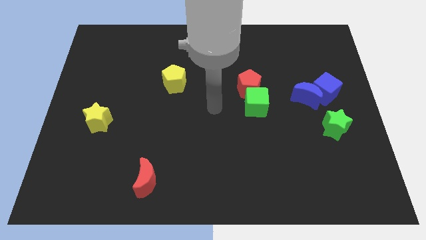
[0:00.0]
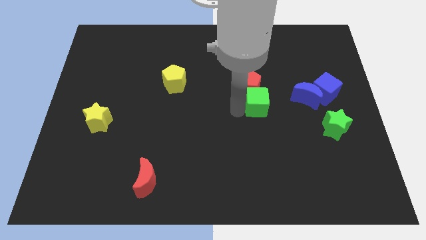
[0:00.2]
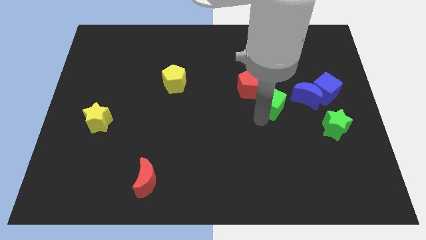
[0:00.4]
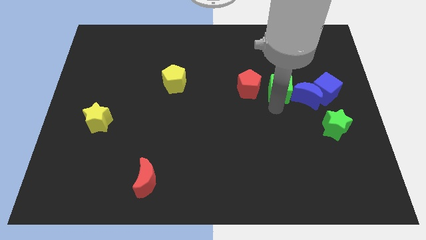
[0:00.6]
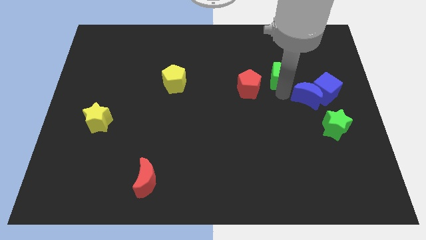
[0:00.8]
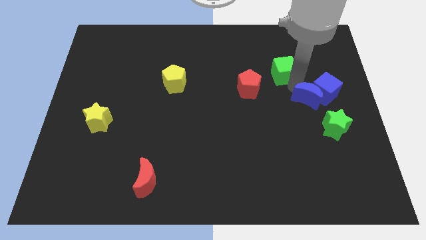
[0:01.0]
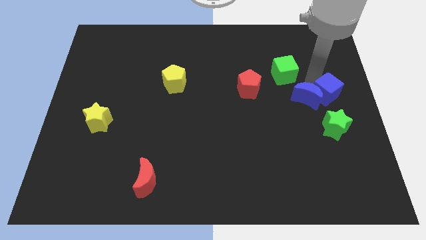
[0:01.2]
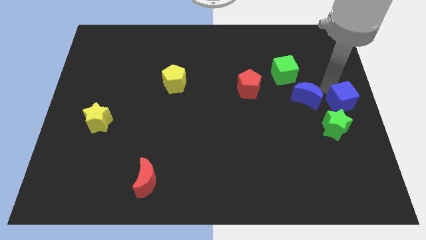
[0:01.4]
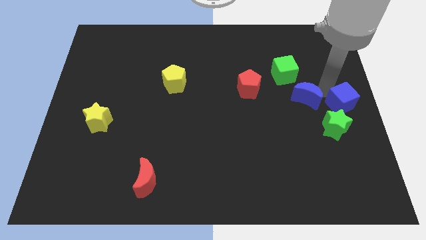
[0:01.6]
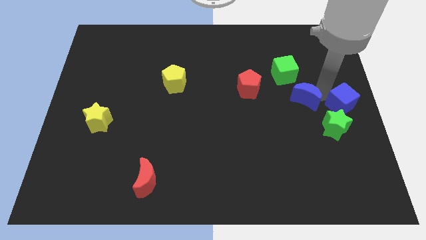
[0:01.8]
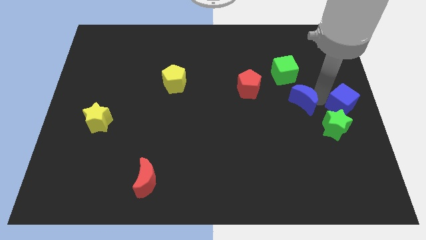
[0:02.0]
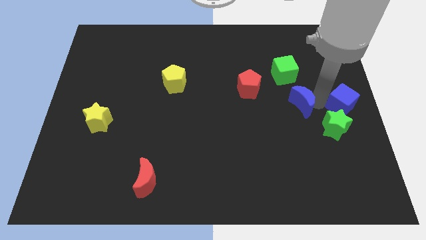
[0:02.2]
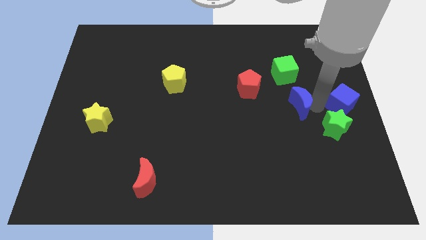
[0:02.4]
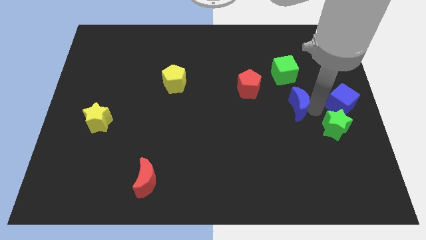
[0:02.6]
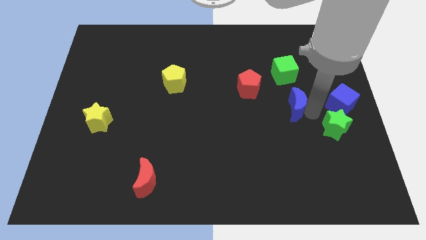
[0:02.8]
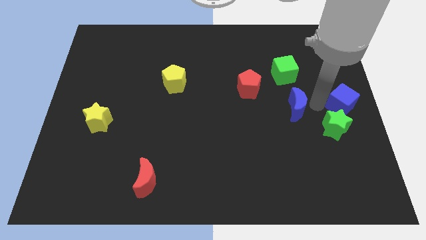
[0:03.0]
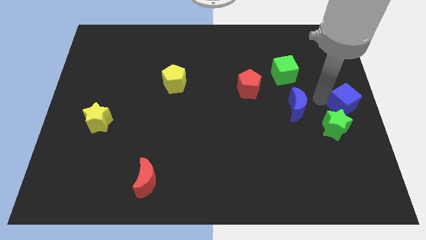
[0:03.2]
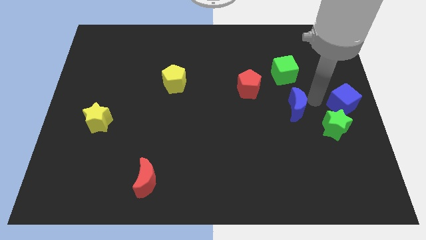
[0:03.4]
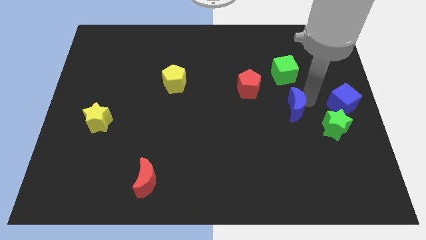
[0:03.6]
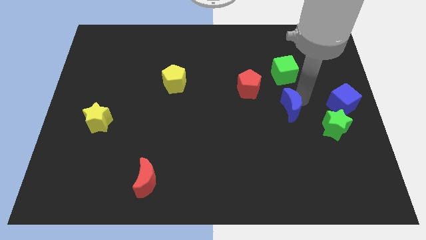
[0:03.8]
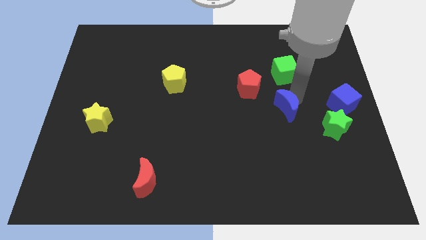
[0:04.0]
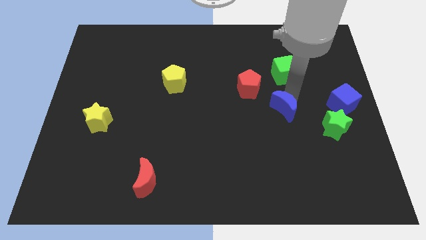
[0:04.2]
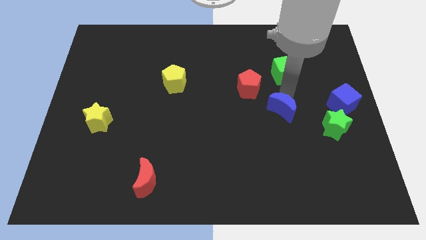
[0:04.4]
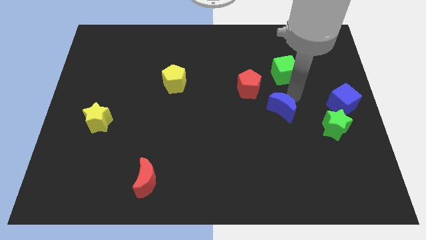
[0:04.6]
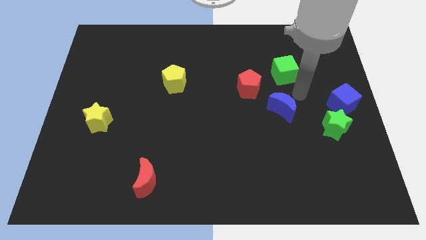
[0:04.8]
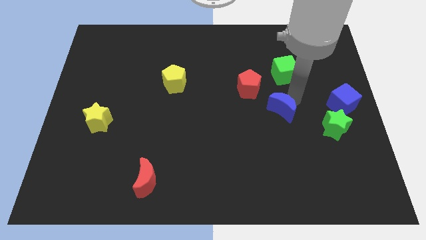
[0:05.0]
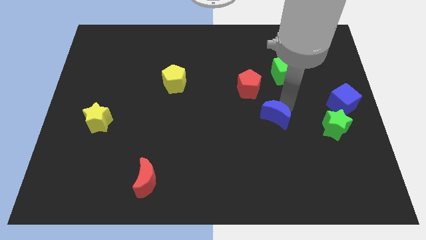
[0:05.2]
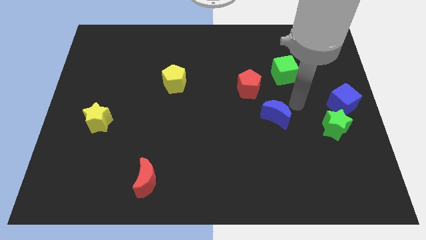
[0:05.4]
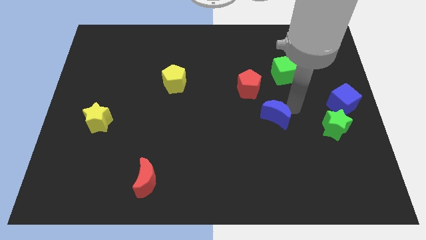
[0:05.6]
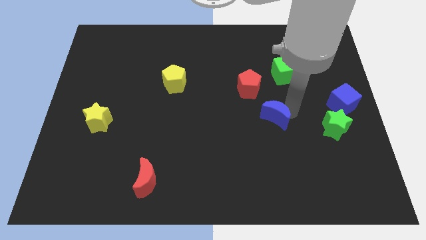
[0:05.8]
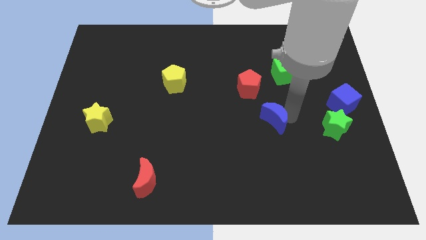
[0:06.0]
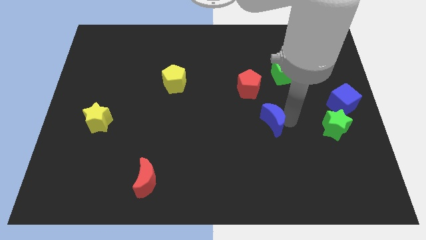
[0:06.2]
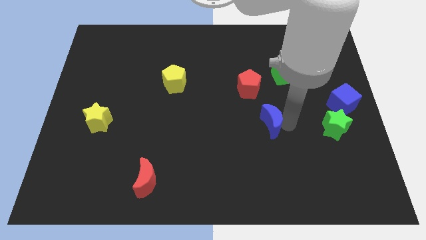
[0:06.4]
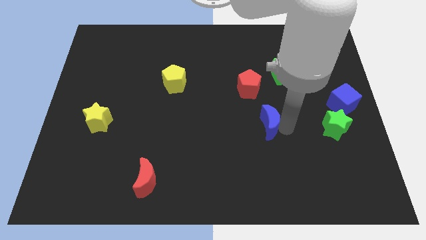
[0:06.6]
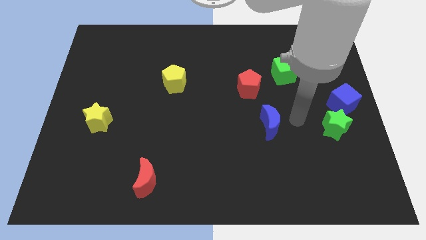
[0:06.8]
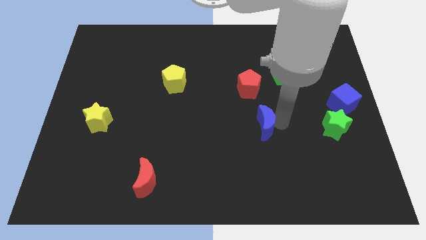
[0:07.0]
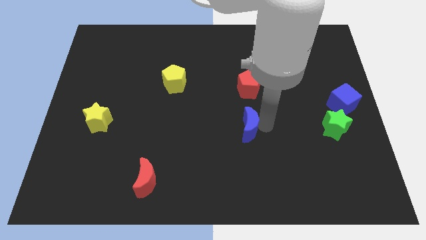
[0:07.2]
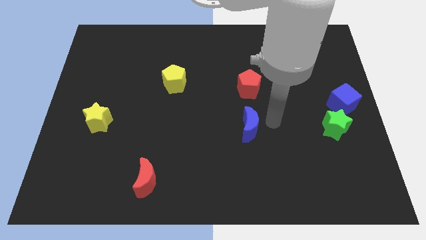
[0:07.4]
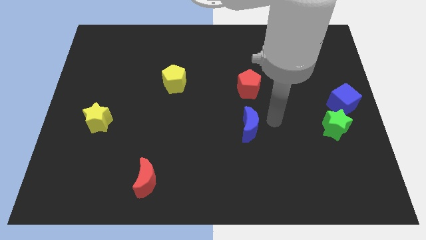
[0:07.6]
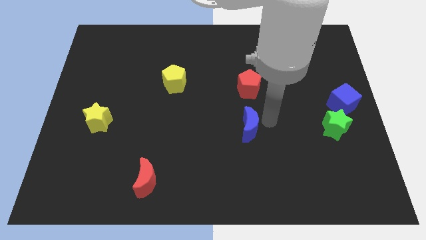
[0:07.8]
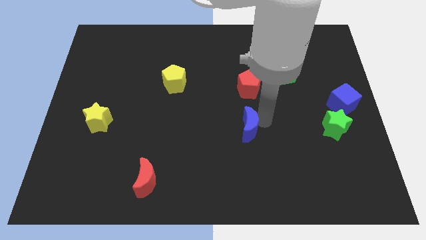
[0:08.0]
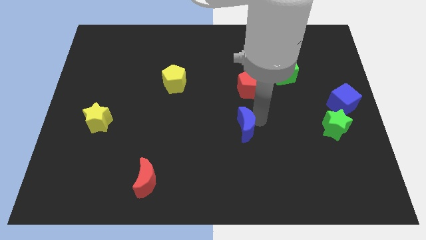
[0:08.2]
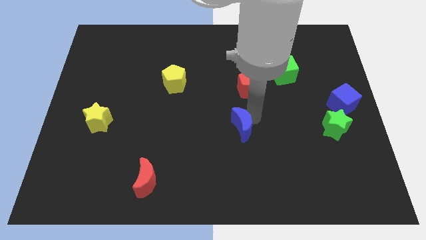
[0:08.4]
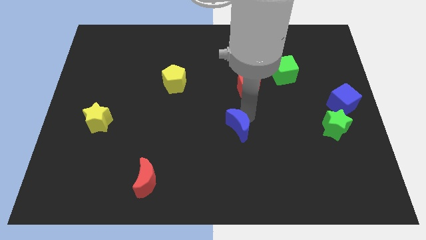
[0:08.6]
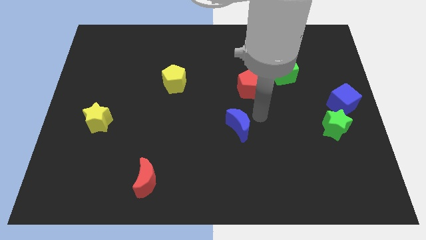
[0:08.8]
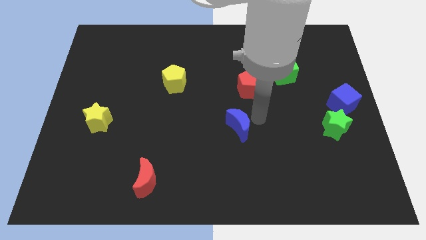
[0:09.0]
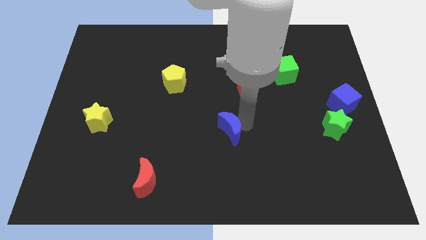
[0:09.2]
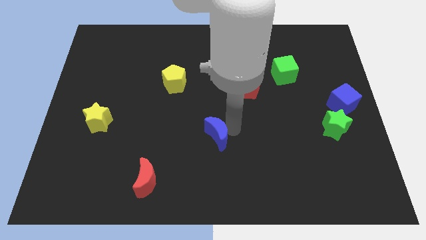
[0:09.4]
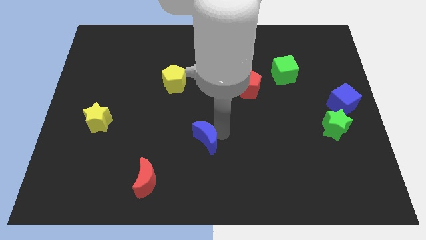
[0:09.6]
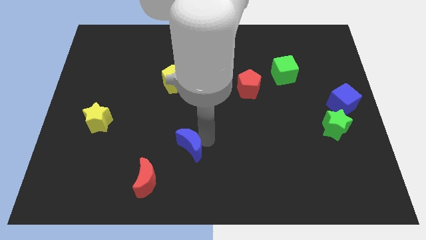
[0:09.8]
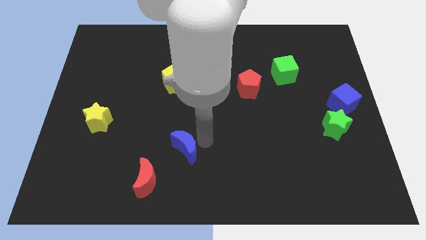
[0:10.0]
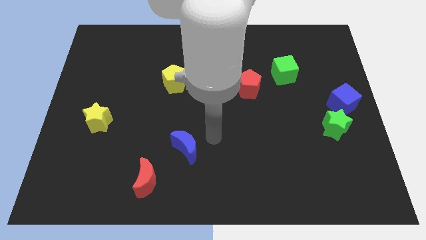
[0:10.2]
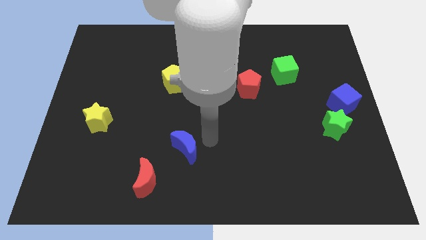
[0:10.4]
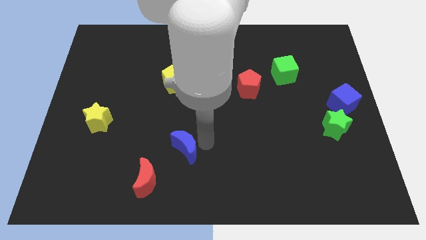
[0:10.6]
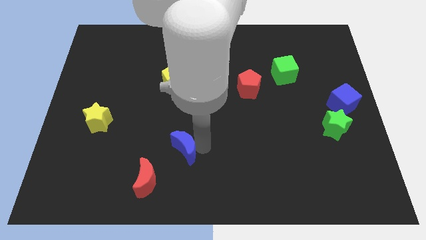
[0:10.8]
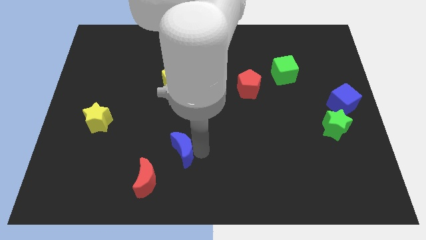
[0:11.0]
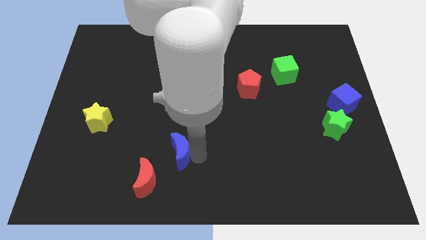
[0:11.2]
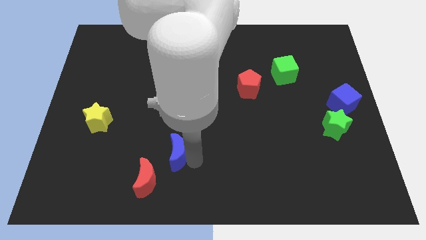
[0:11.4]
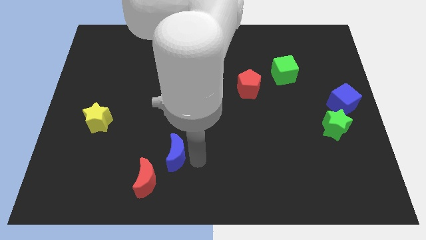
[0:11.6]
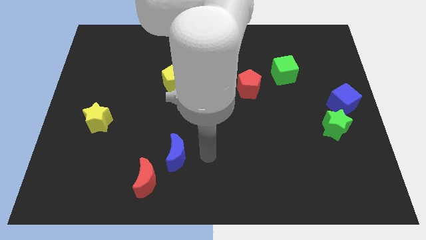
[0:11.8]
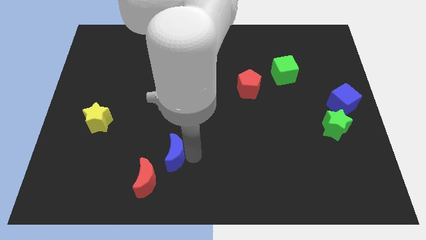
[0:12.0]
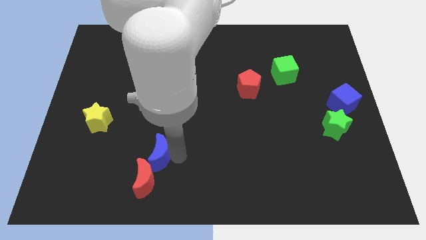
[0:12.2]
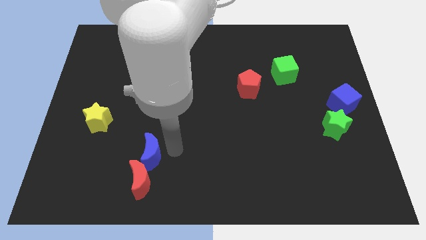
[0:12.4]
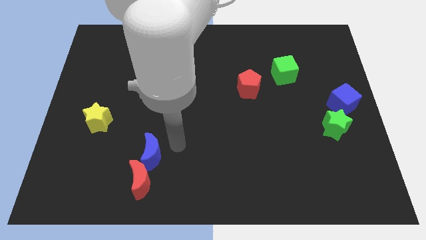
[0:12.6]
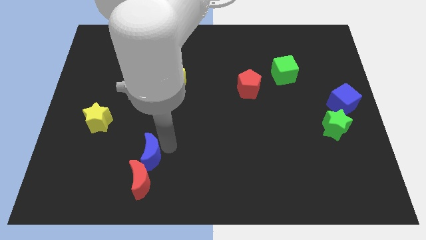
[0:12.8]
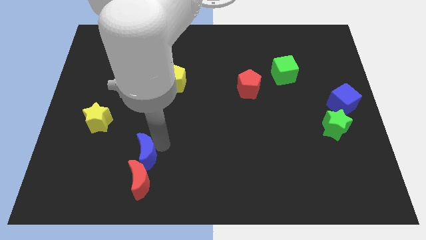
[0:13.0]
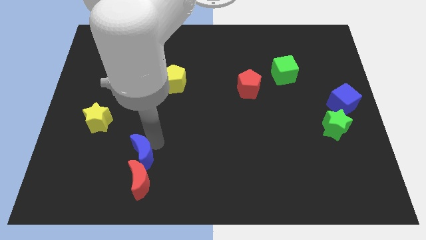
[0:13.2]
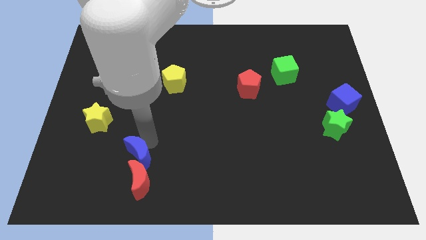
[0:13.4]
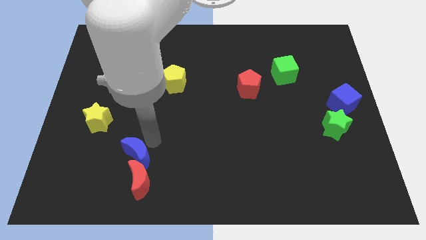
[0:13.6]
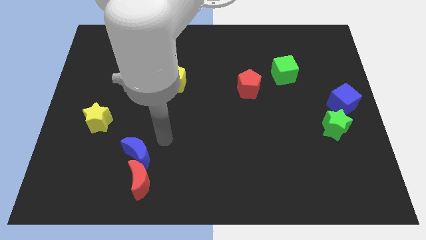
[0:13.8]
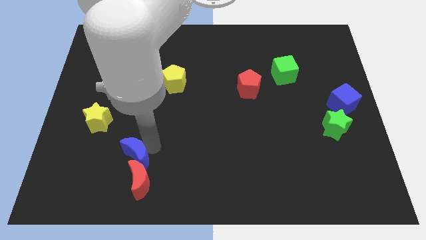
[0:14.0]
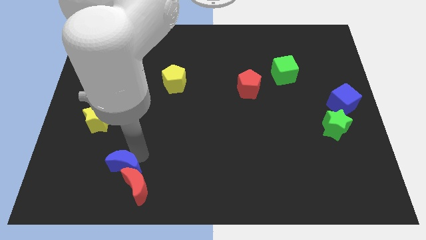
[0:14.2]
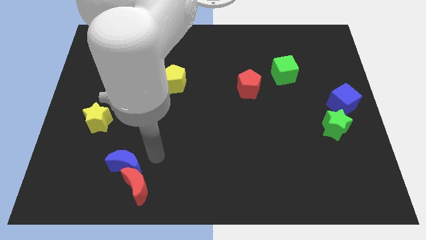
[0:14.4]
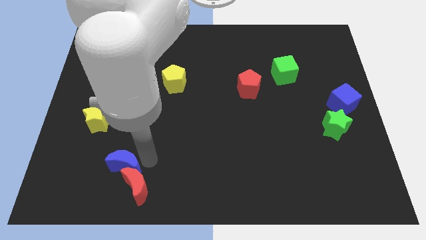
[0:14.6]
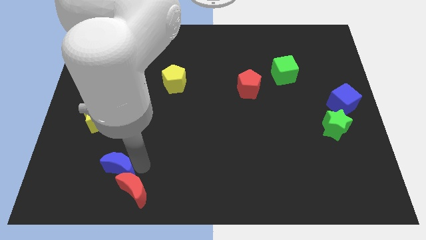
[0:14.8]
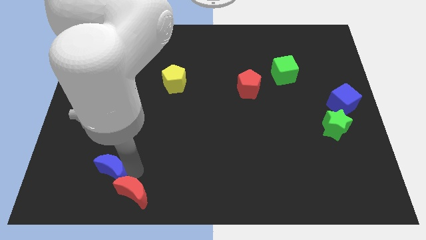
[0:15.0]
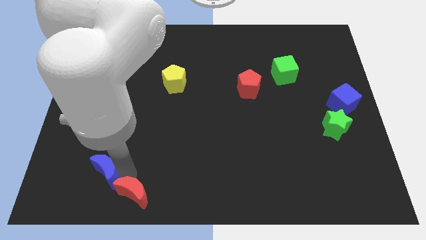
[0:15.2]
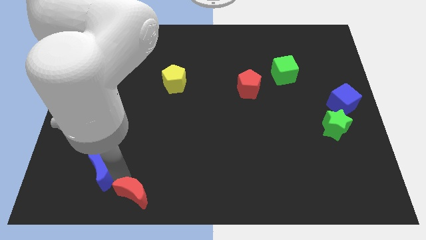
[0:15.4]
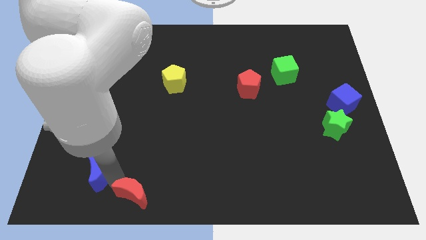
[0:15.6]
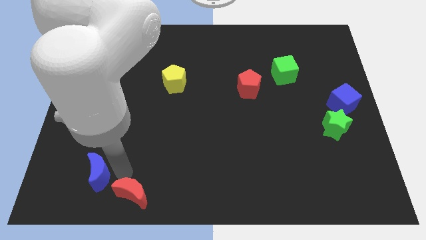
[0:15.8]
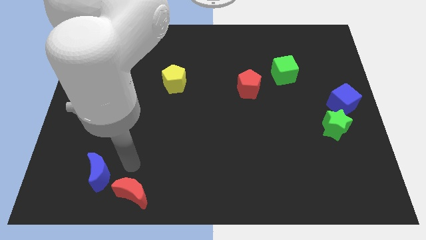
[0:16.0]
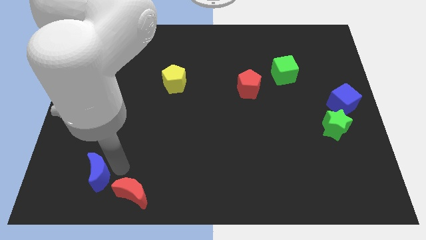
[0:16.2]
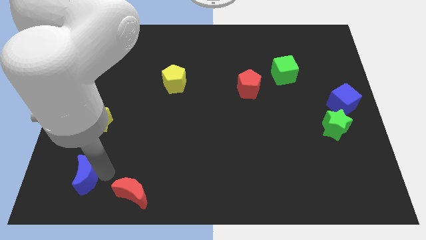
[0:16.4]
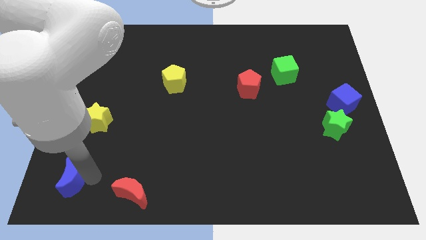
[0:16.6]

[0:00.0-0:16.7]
slide the blue moon to the lower left corner
